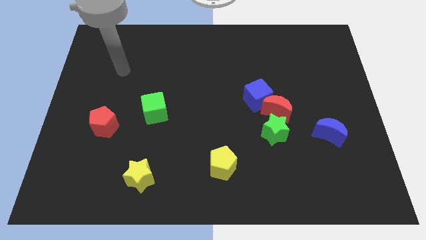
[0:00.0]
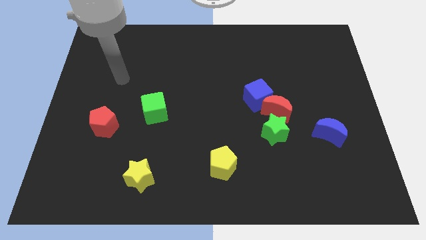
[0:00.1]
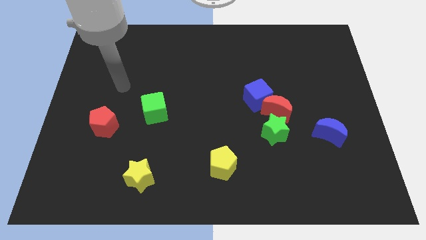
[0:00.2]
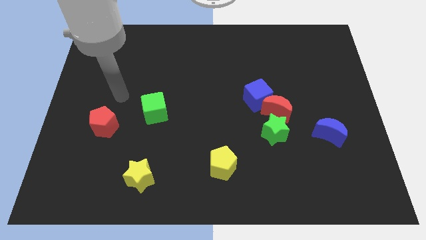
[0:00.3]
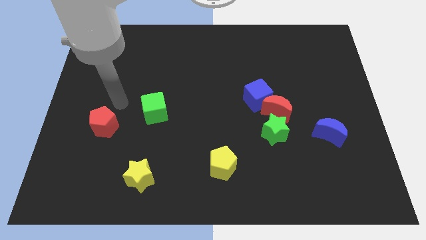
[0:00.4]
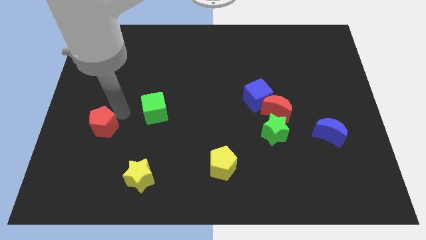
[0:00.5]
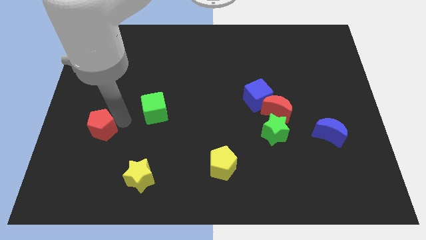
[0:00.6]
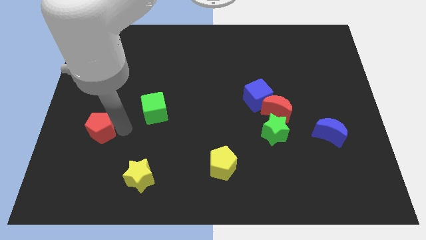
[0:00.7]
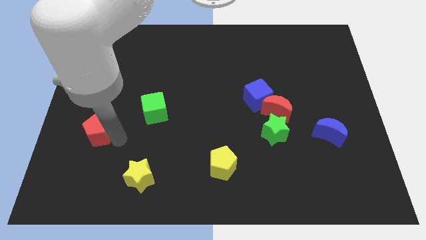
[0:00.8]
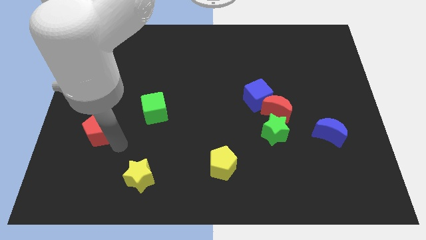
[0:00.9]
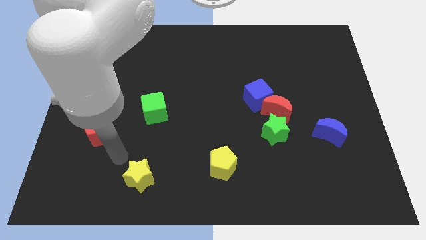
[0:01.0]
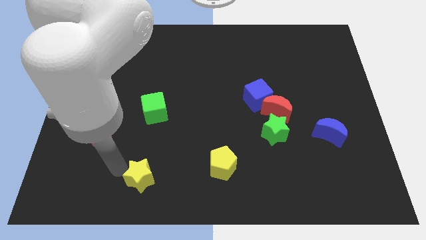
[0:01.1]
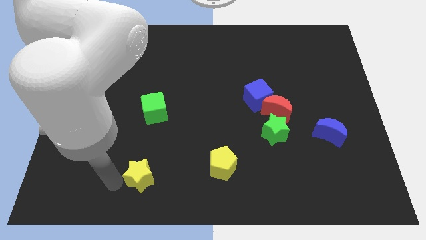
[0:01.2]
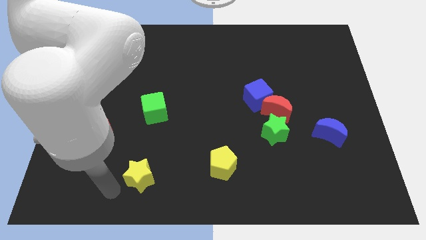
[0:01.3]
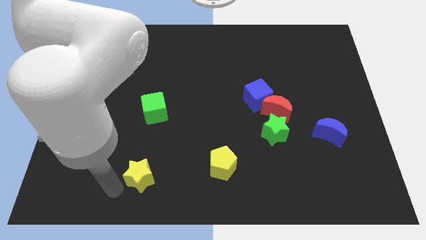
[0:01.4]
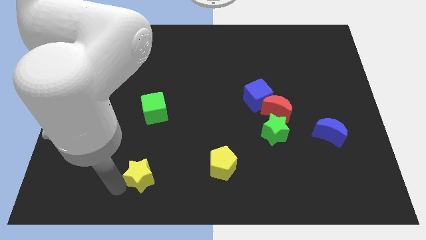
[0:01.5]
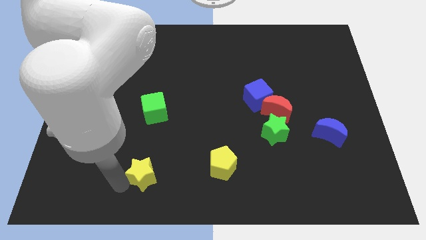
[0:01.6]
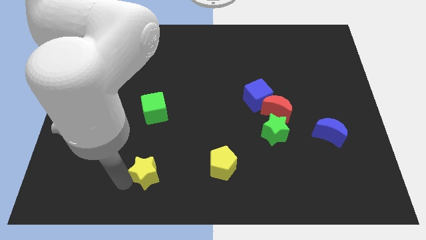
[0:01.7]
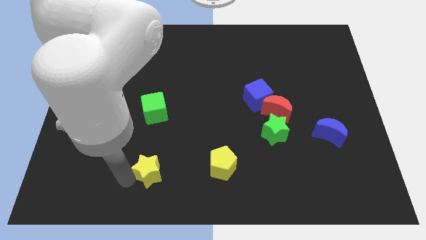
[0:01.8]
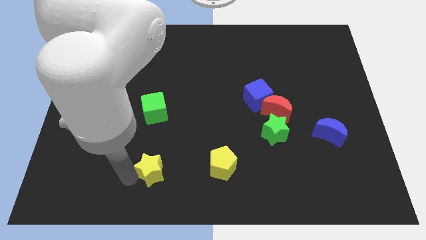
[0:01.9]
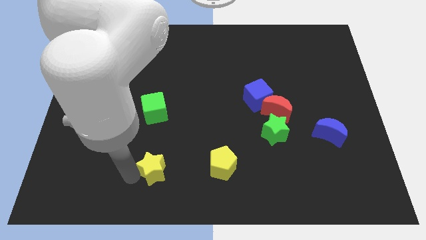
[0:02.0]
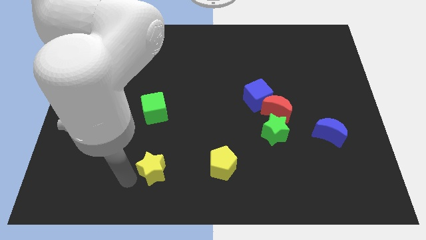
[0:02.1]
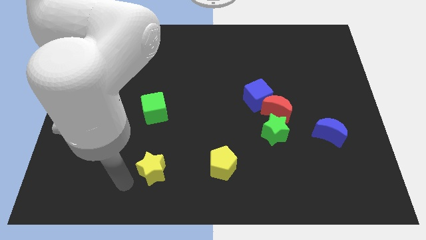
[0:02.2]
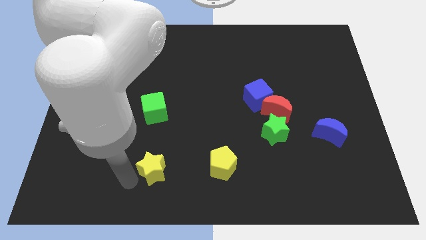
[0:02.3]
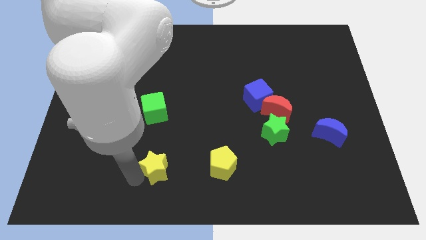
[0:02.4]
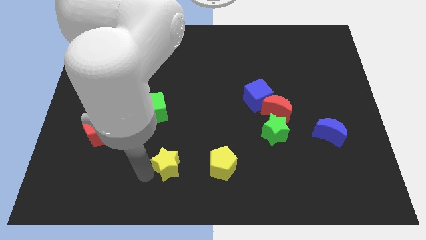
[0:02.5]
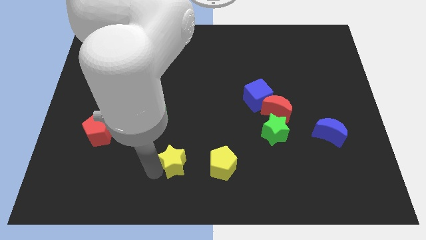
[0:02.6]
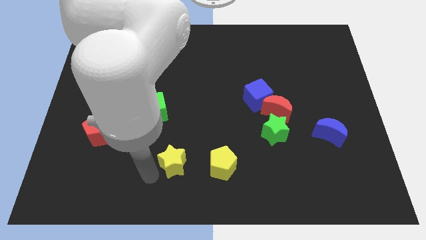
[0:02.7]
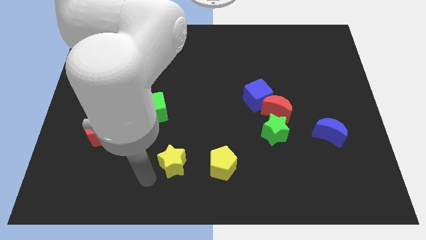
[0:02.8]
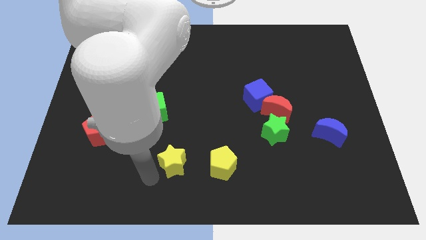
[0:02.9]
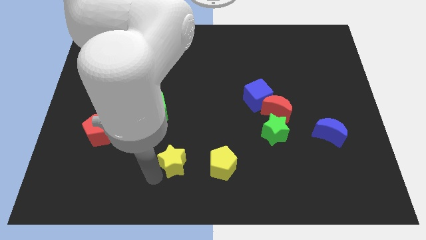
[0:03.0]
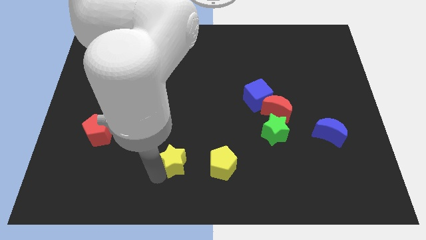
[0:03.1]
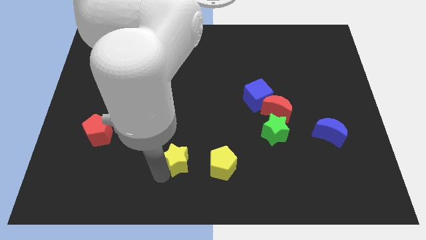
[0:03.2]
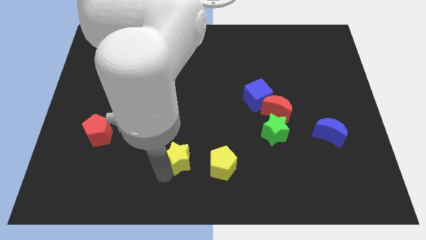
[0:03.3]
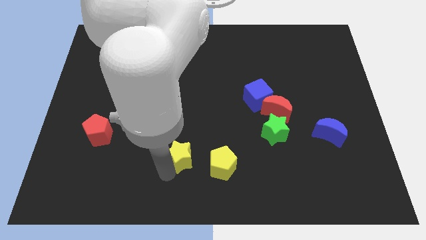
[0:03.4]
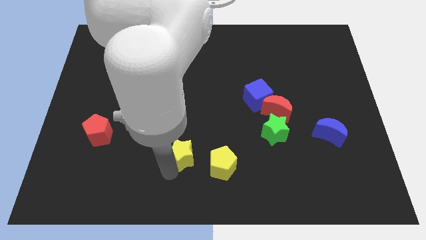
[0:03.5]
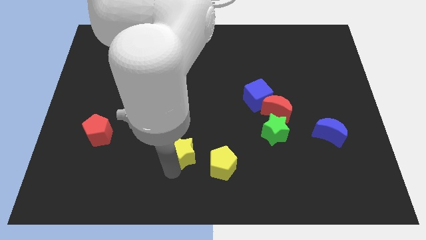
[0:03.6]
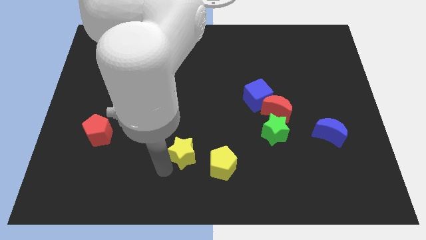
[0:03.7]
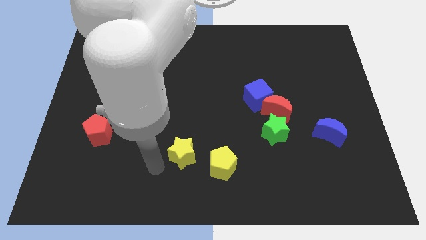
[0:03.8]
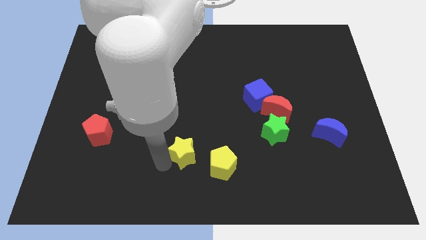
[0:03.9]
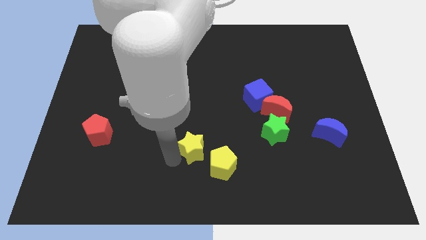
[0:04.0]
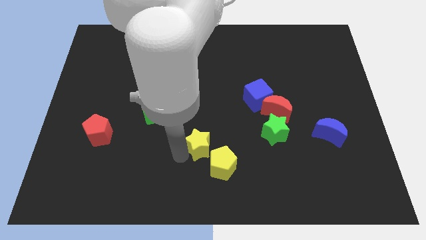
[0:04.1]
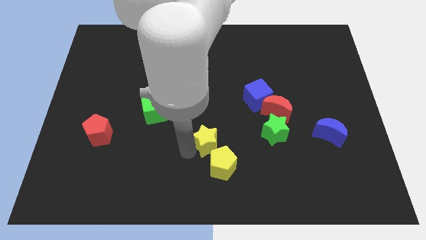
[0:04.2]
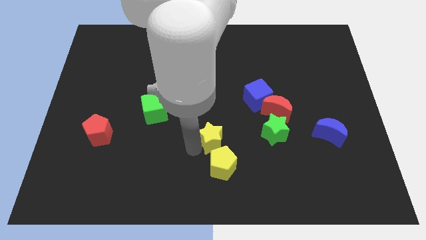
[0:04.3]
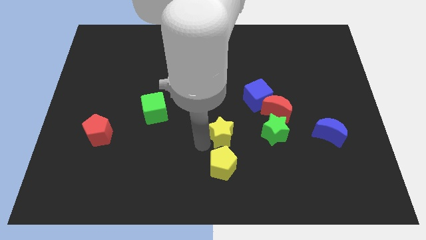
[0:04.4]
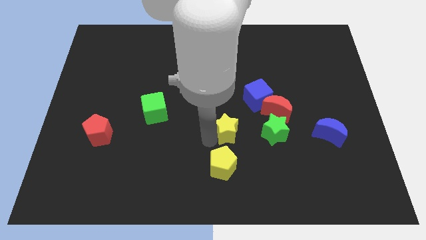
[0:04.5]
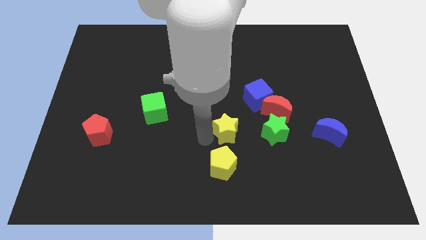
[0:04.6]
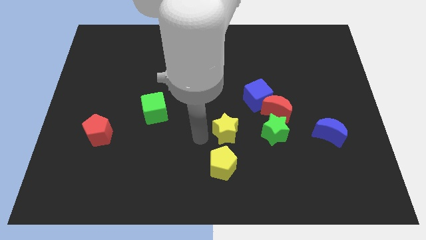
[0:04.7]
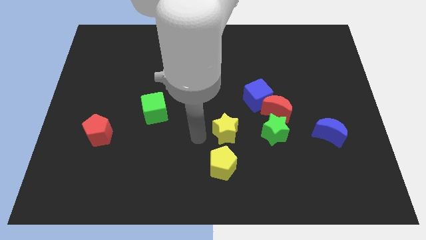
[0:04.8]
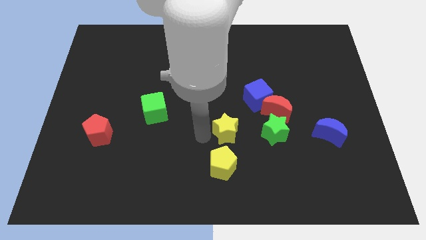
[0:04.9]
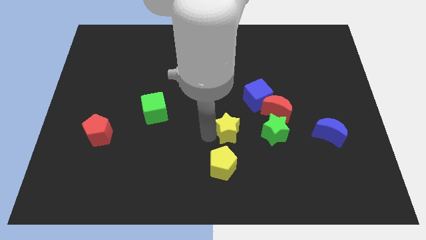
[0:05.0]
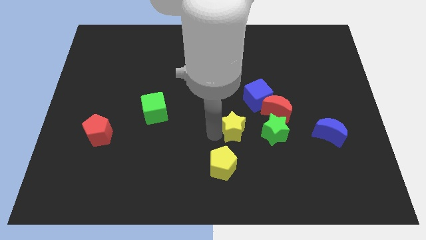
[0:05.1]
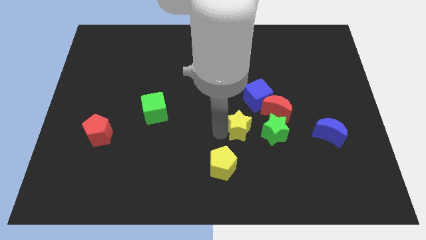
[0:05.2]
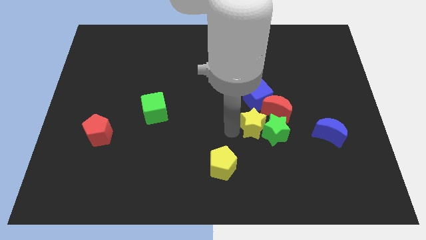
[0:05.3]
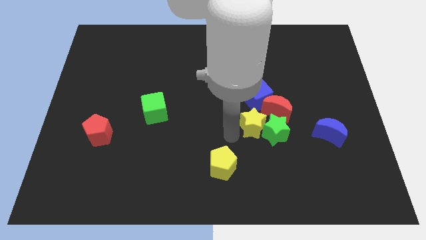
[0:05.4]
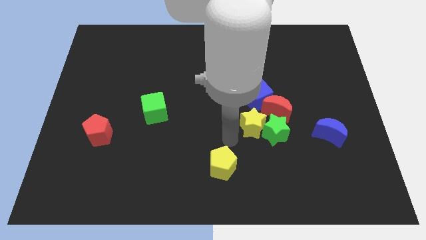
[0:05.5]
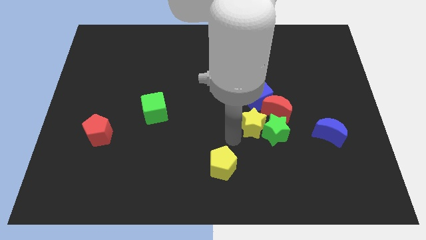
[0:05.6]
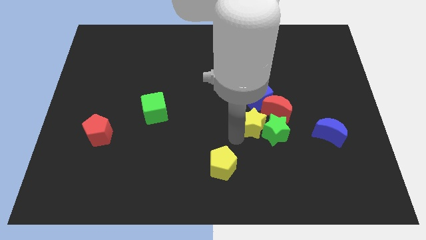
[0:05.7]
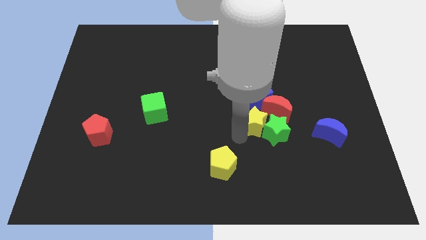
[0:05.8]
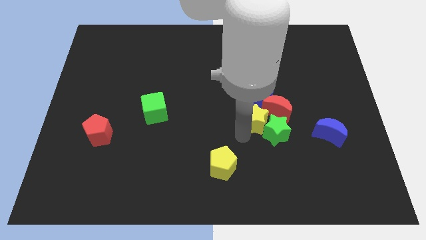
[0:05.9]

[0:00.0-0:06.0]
slide the yellow star towards the red moon

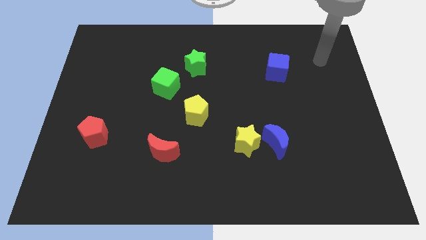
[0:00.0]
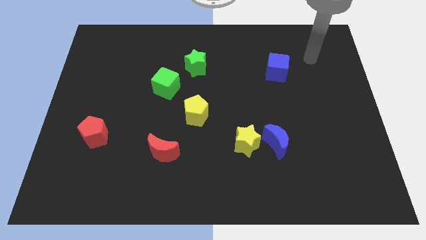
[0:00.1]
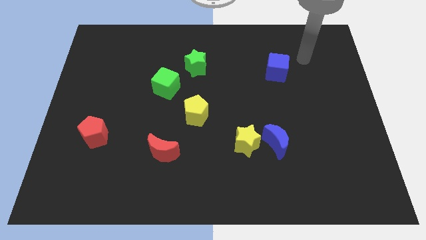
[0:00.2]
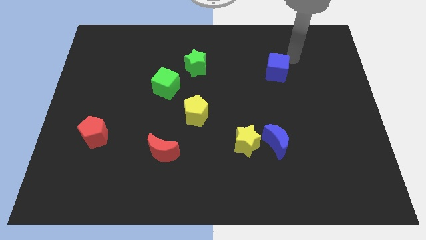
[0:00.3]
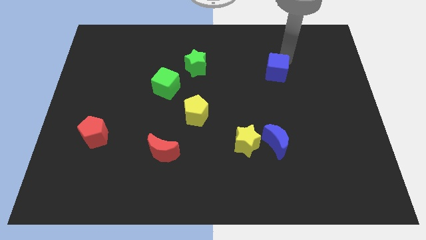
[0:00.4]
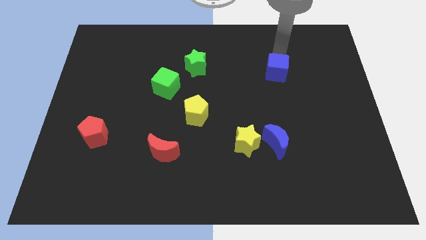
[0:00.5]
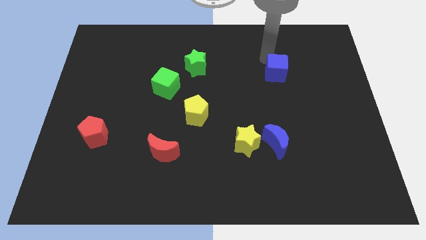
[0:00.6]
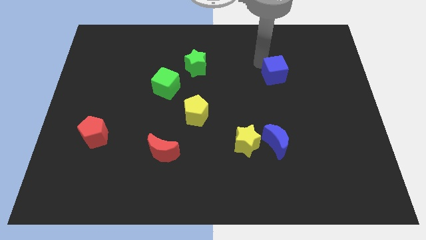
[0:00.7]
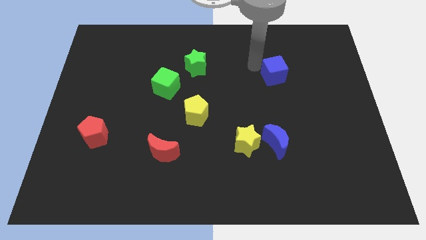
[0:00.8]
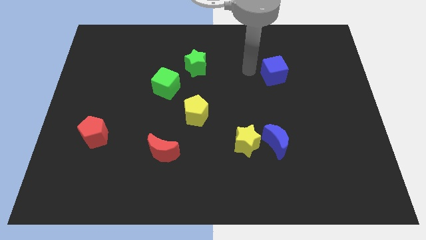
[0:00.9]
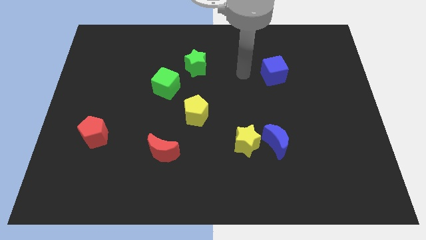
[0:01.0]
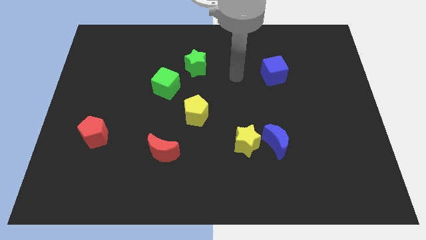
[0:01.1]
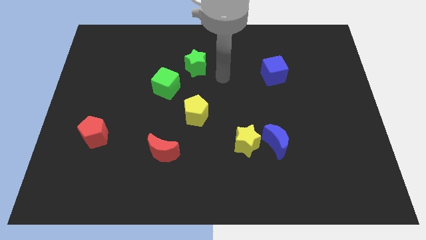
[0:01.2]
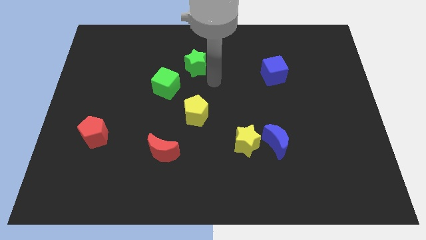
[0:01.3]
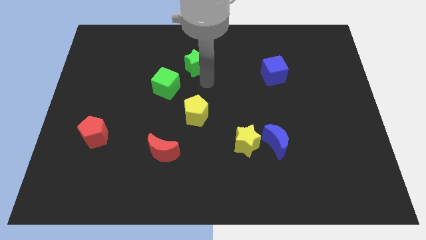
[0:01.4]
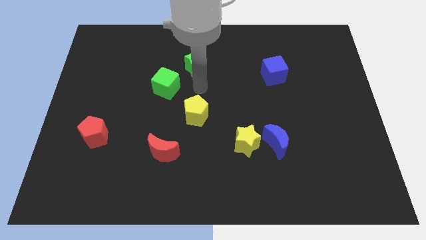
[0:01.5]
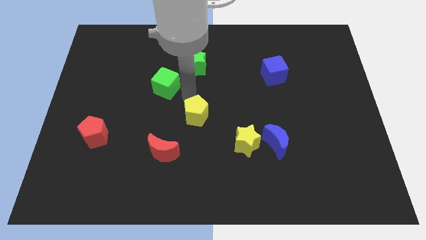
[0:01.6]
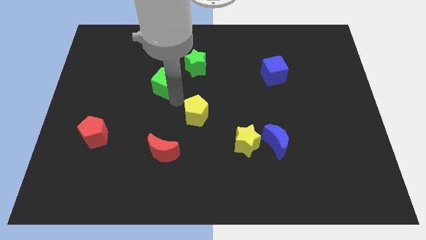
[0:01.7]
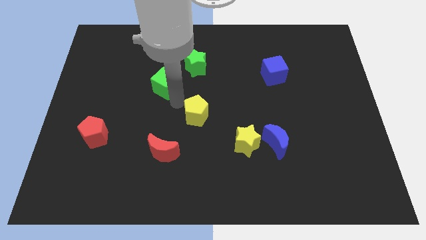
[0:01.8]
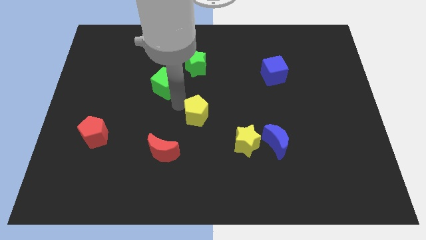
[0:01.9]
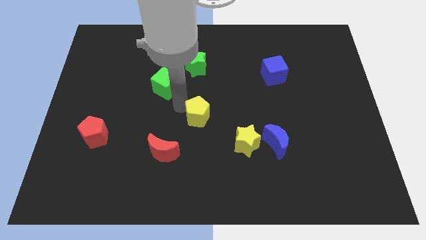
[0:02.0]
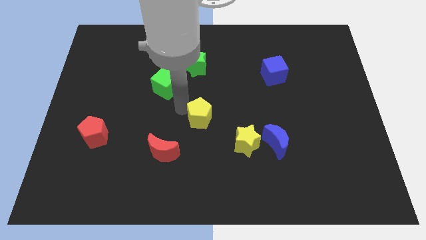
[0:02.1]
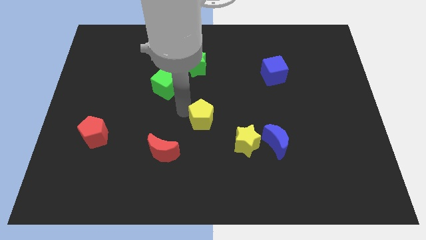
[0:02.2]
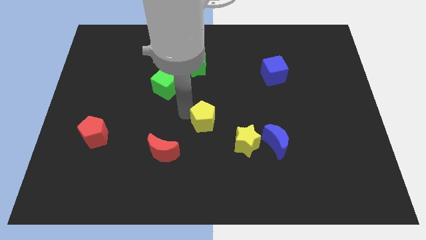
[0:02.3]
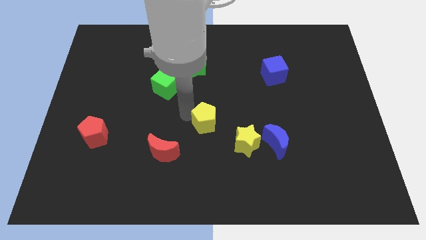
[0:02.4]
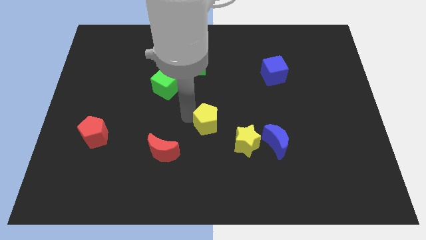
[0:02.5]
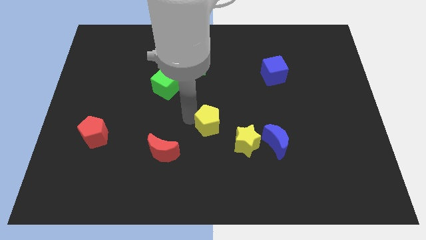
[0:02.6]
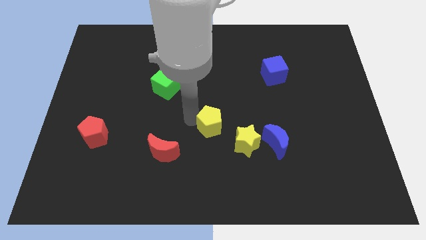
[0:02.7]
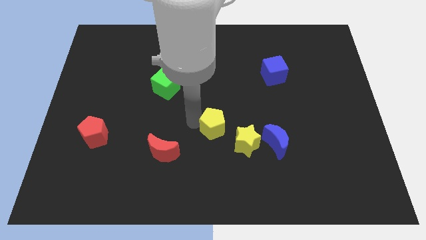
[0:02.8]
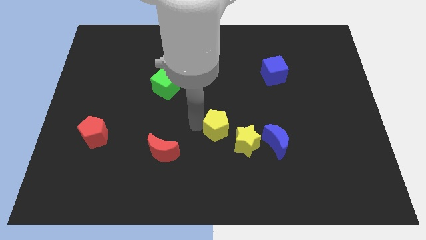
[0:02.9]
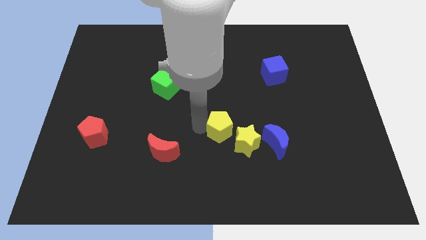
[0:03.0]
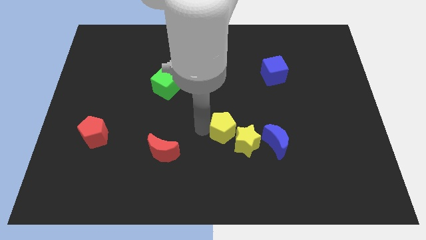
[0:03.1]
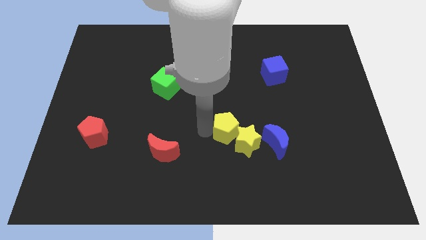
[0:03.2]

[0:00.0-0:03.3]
push the yellow pentagon towards the yellow star
